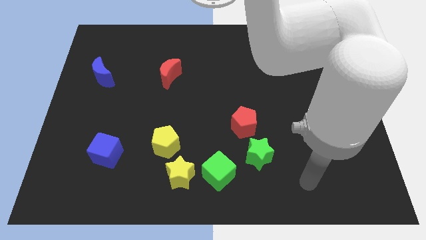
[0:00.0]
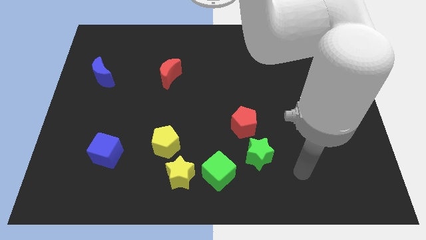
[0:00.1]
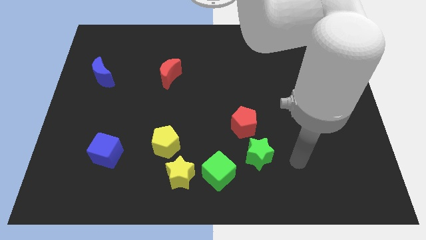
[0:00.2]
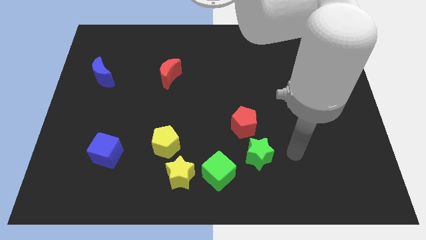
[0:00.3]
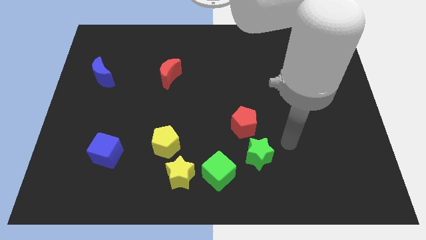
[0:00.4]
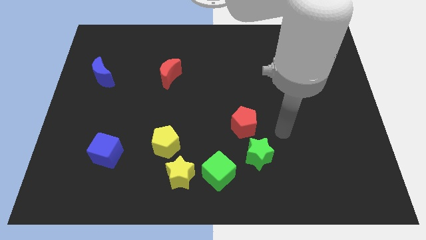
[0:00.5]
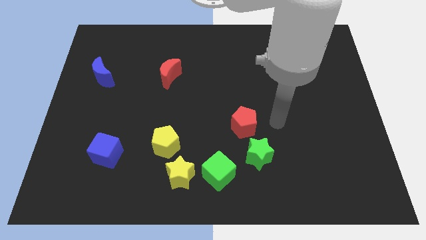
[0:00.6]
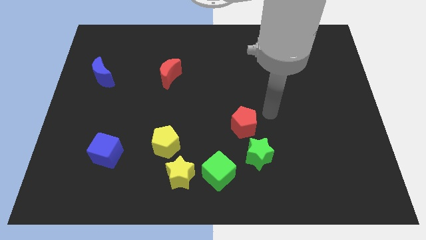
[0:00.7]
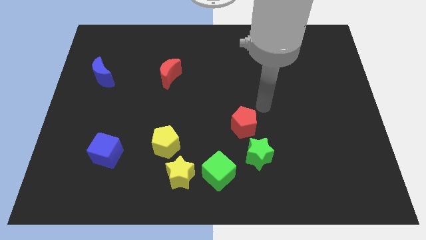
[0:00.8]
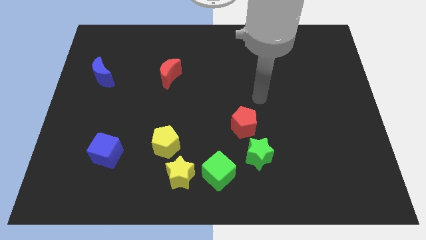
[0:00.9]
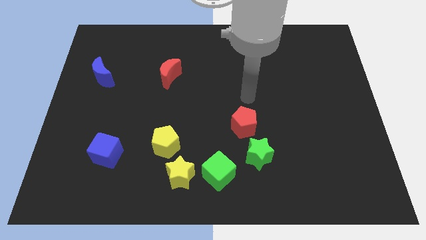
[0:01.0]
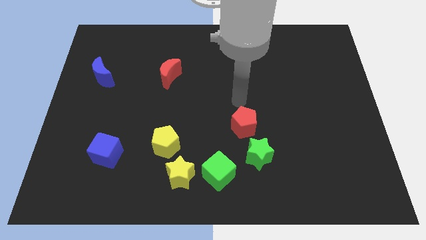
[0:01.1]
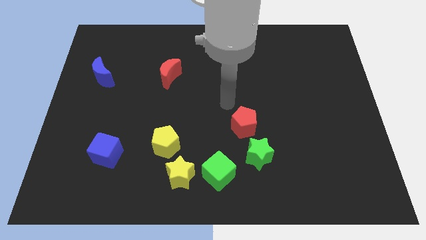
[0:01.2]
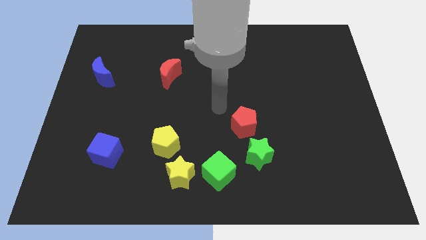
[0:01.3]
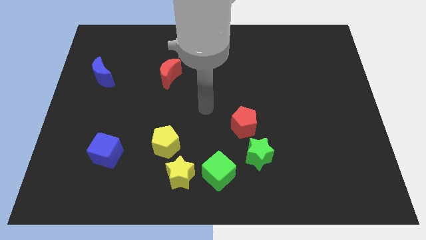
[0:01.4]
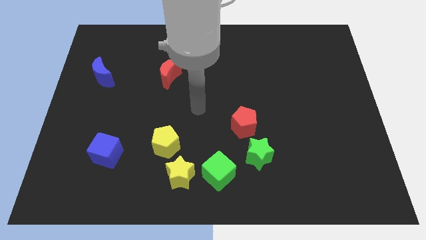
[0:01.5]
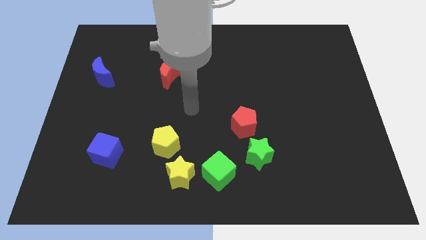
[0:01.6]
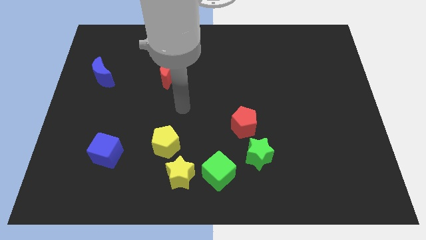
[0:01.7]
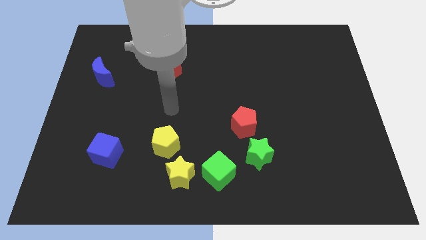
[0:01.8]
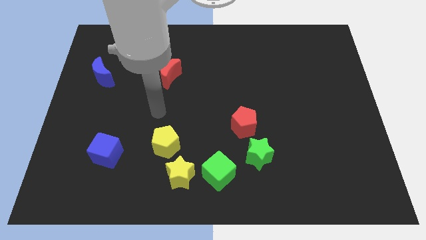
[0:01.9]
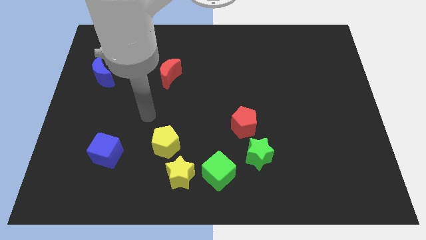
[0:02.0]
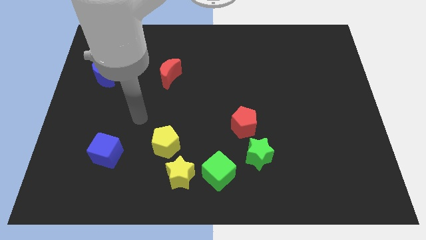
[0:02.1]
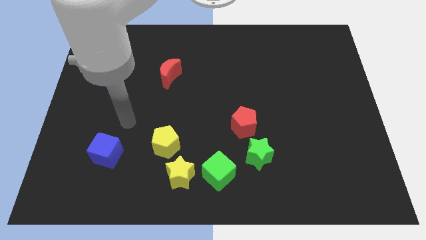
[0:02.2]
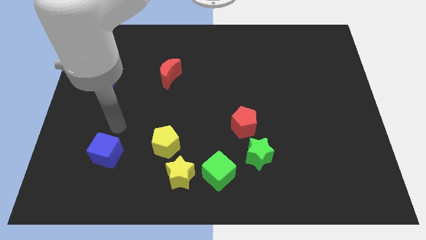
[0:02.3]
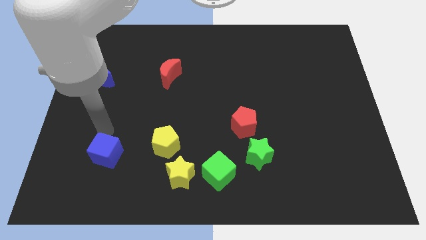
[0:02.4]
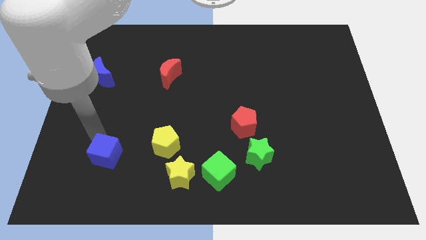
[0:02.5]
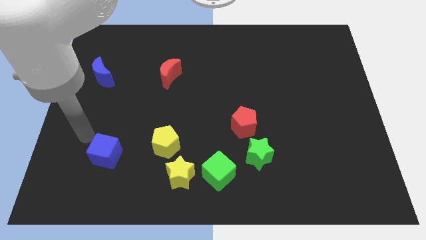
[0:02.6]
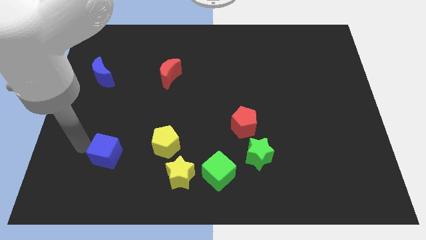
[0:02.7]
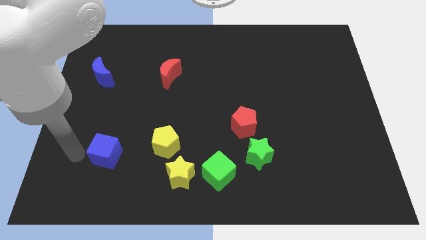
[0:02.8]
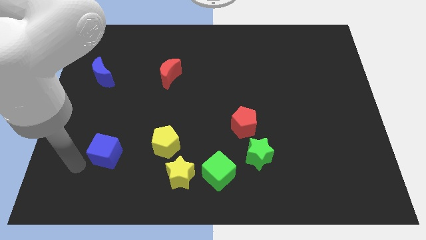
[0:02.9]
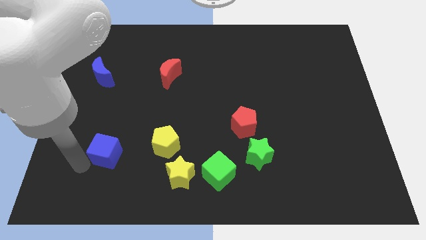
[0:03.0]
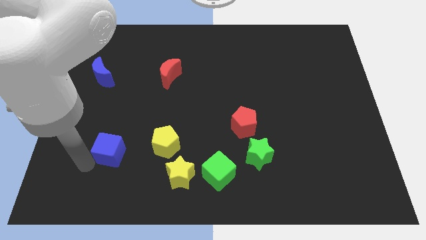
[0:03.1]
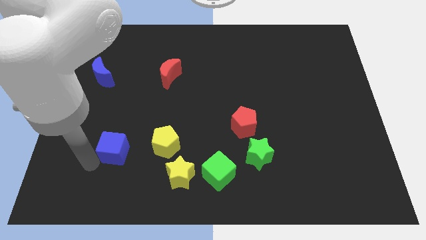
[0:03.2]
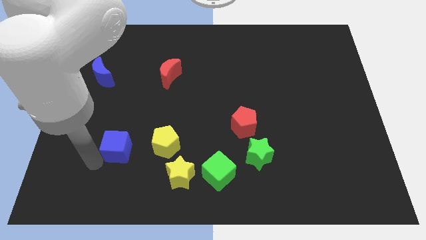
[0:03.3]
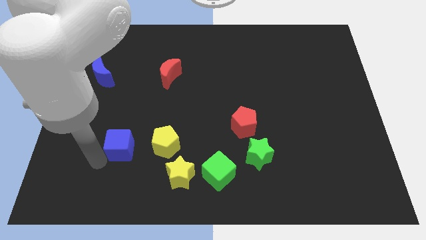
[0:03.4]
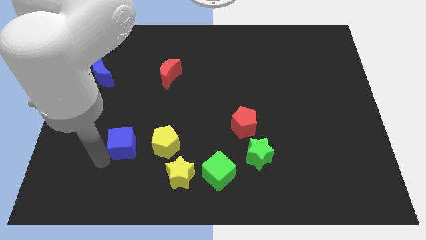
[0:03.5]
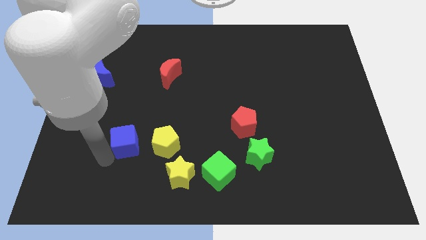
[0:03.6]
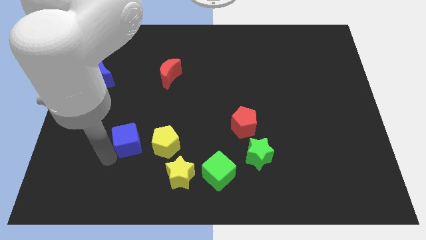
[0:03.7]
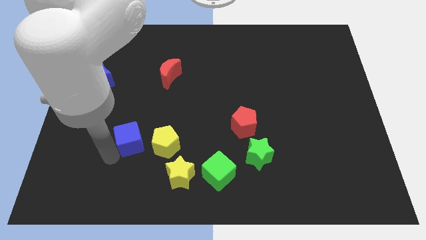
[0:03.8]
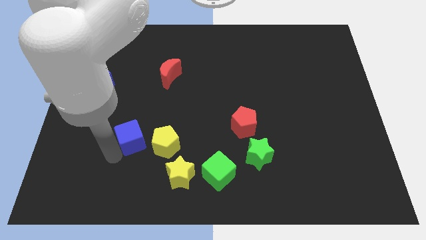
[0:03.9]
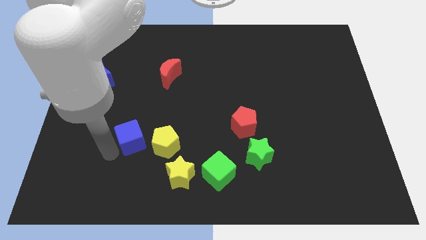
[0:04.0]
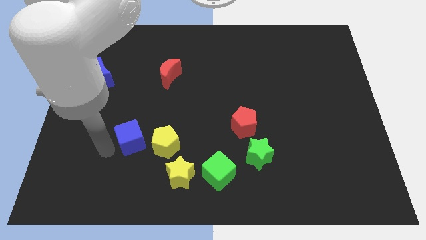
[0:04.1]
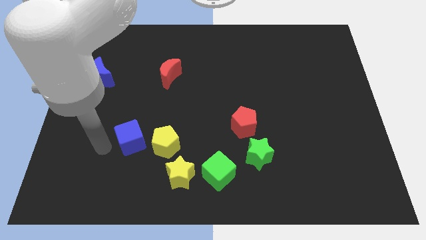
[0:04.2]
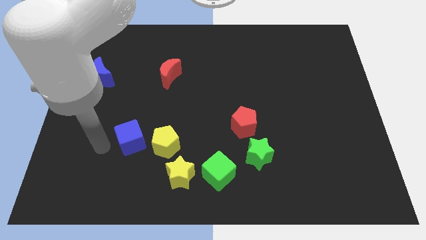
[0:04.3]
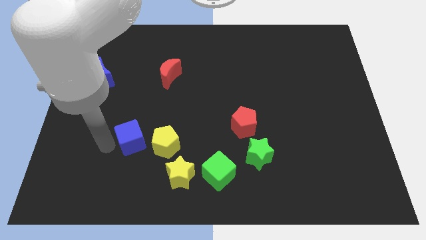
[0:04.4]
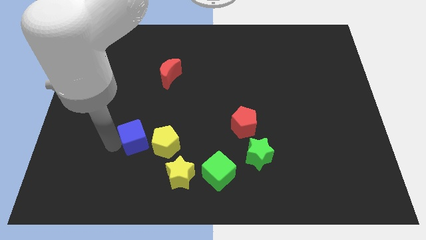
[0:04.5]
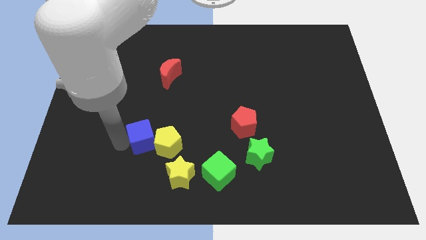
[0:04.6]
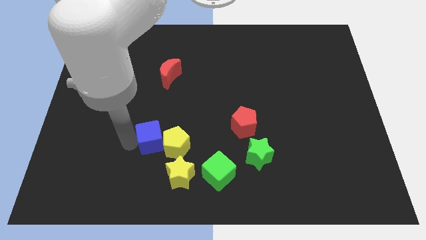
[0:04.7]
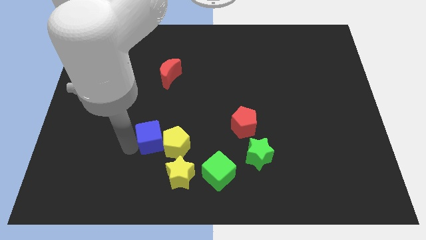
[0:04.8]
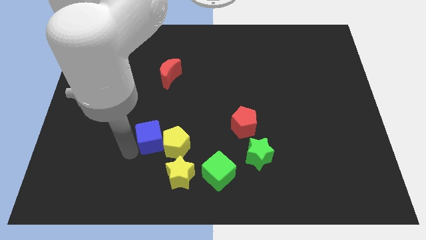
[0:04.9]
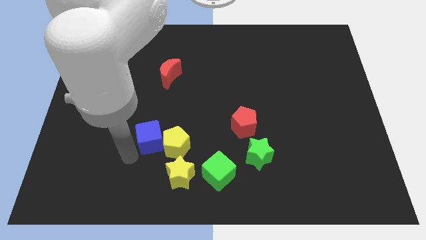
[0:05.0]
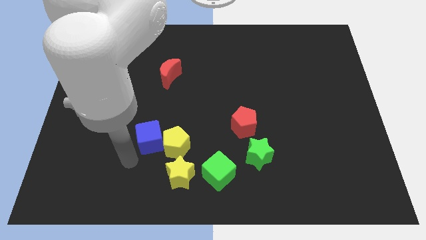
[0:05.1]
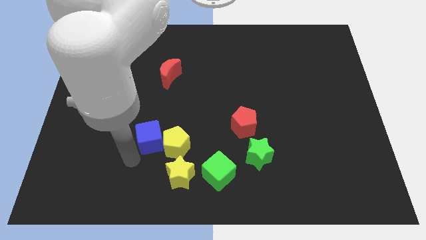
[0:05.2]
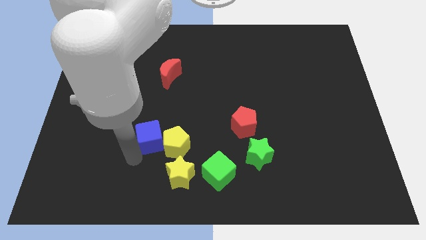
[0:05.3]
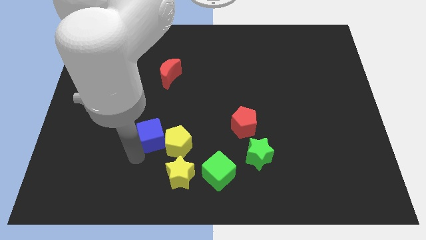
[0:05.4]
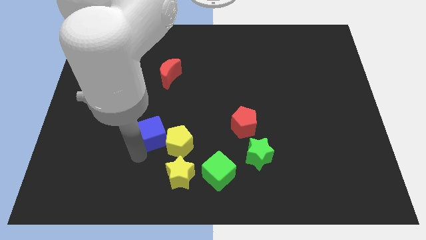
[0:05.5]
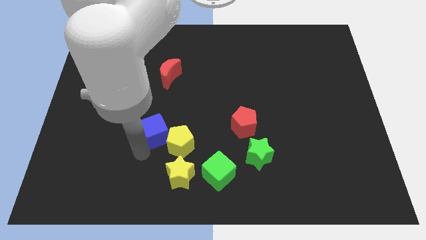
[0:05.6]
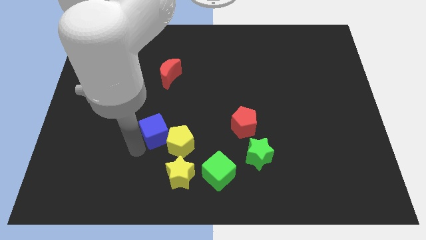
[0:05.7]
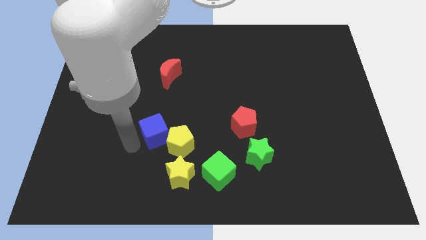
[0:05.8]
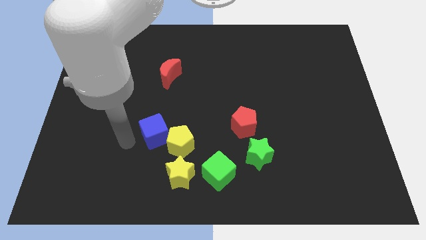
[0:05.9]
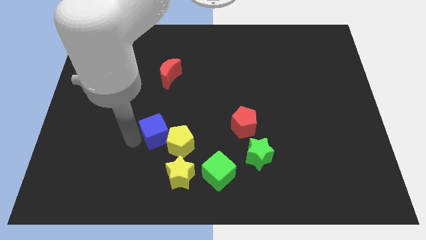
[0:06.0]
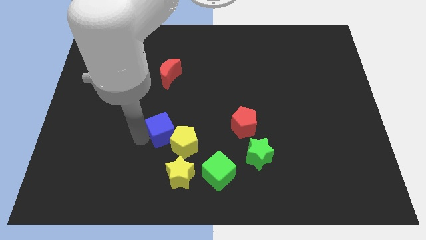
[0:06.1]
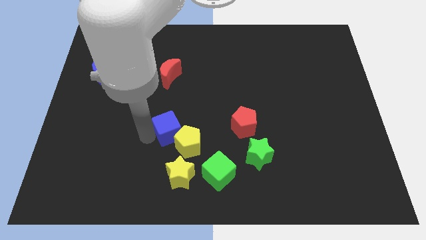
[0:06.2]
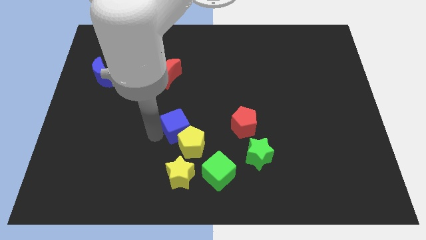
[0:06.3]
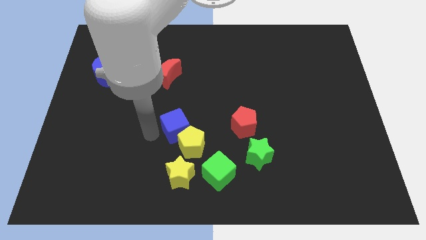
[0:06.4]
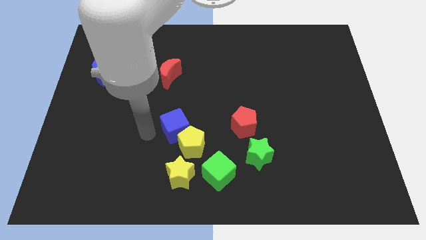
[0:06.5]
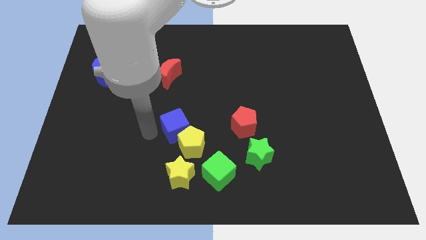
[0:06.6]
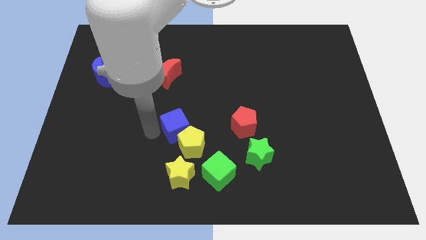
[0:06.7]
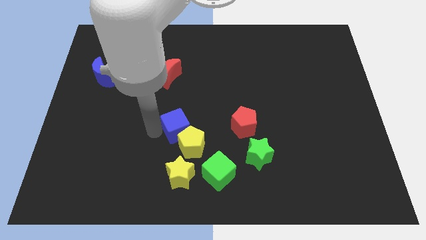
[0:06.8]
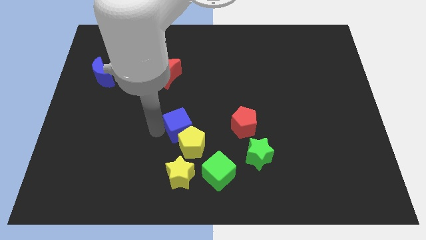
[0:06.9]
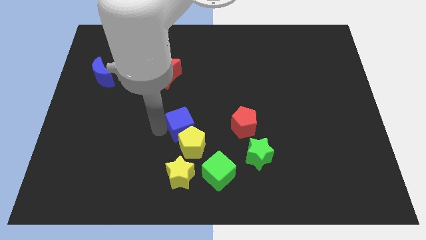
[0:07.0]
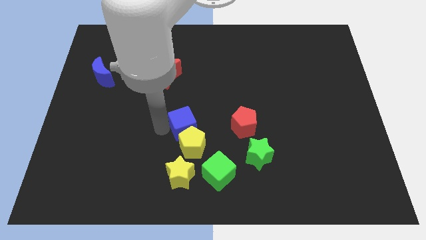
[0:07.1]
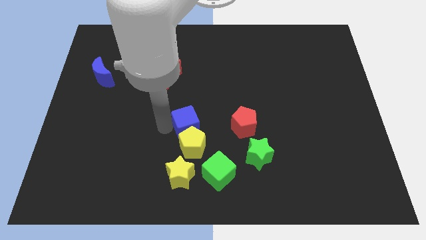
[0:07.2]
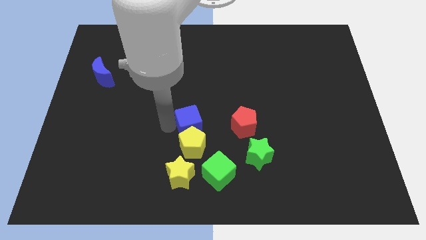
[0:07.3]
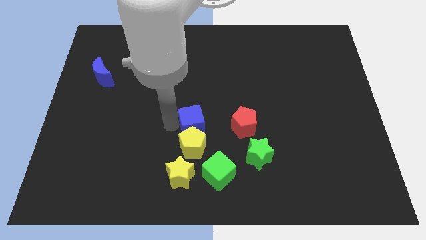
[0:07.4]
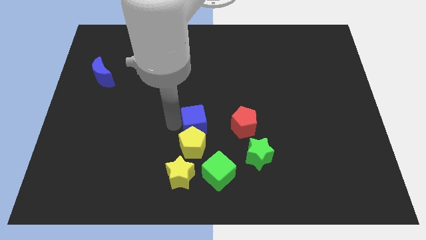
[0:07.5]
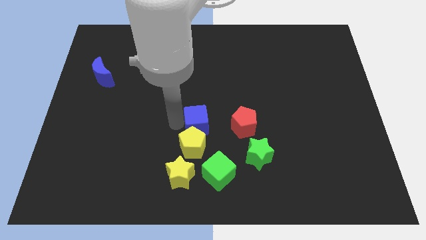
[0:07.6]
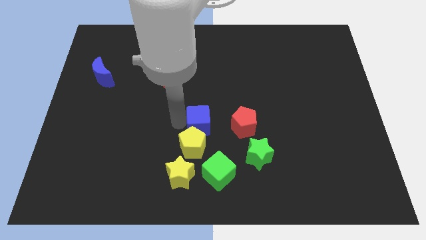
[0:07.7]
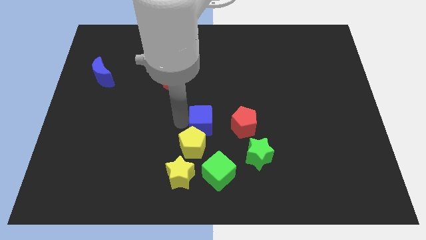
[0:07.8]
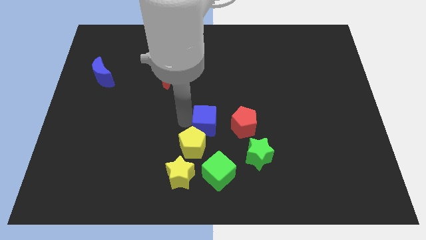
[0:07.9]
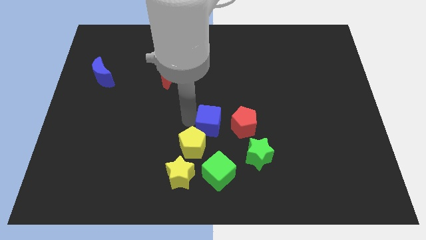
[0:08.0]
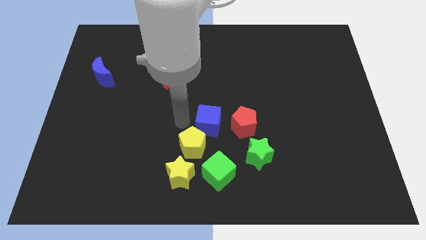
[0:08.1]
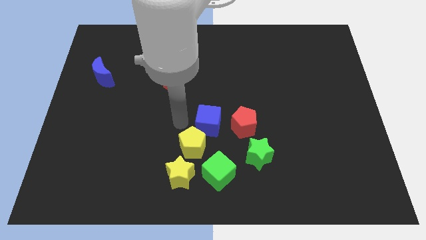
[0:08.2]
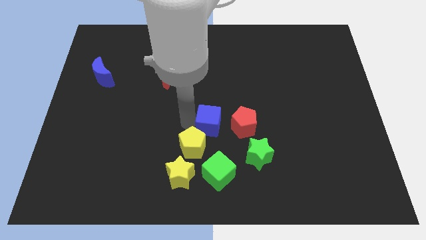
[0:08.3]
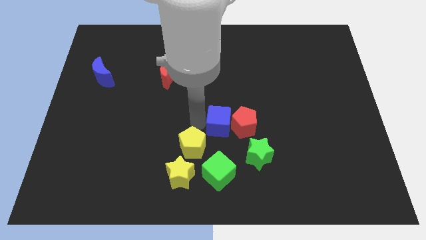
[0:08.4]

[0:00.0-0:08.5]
push the blue cube next to the red pentagon
